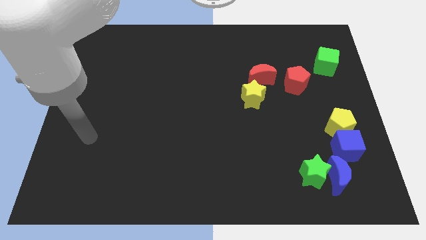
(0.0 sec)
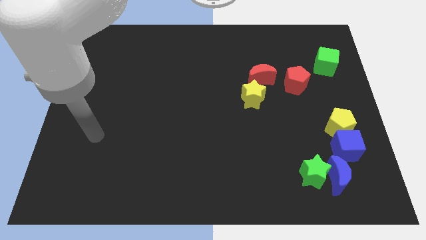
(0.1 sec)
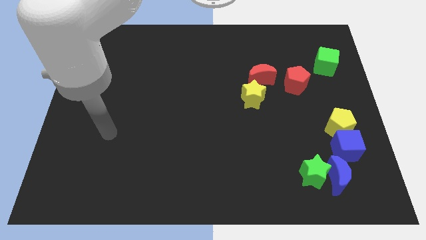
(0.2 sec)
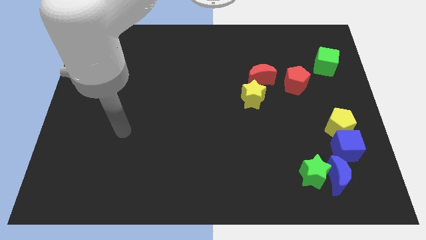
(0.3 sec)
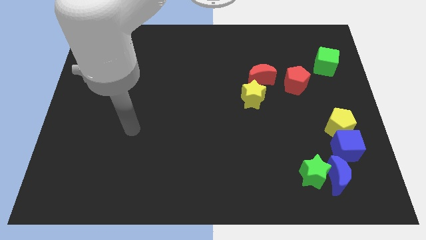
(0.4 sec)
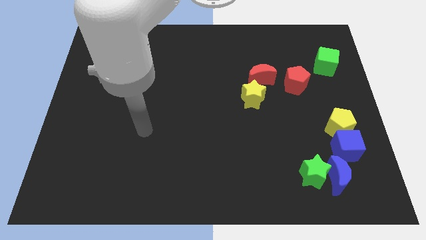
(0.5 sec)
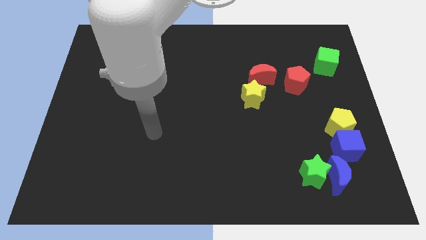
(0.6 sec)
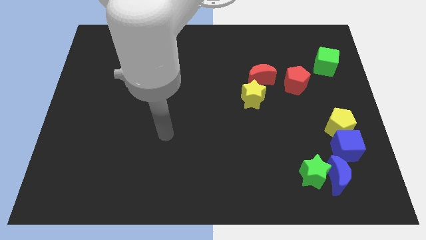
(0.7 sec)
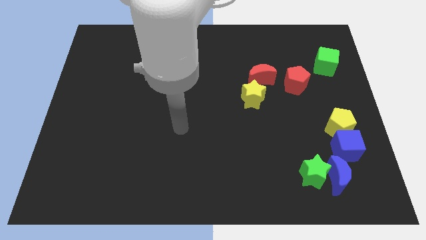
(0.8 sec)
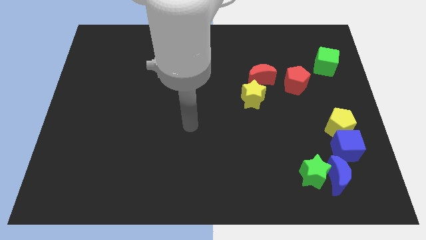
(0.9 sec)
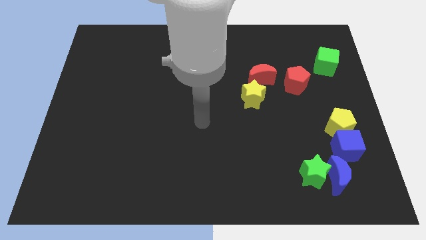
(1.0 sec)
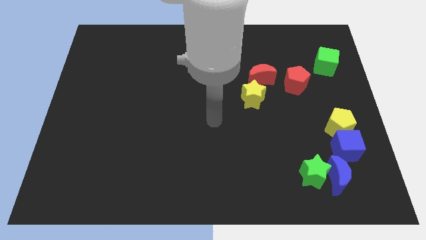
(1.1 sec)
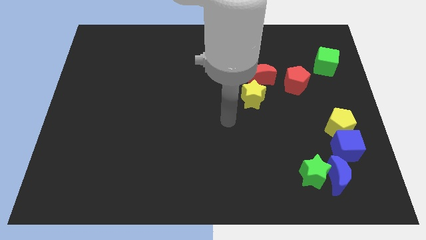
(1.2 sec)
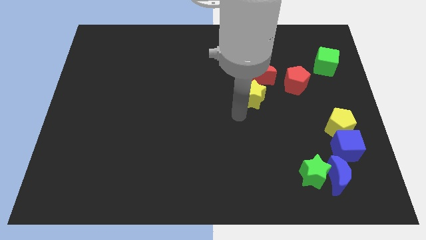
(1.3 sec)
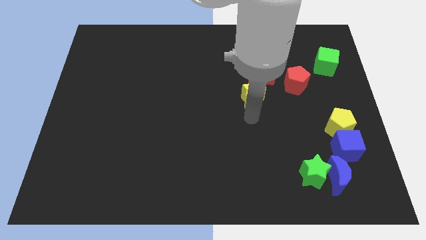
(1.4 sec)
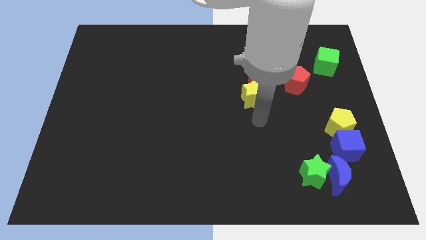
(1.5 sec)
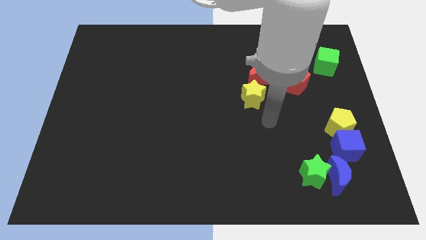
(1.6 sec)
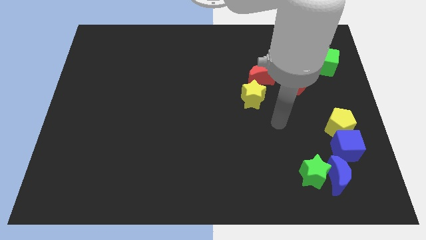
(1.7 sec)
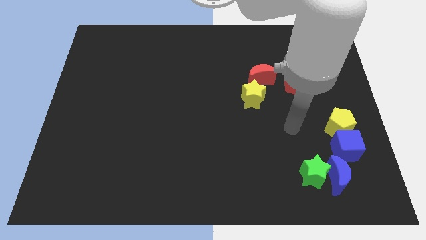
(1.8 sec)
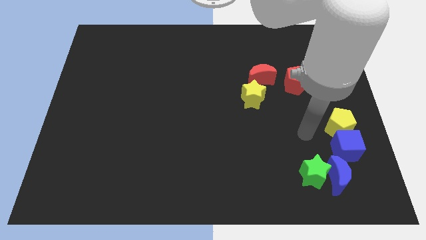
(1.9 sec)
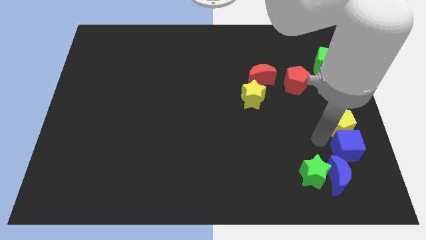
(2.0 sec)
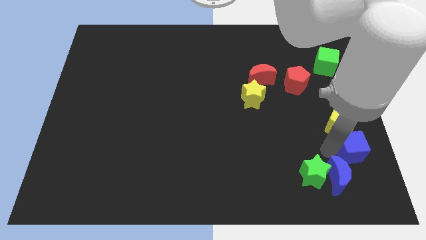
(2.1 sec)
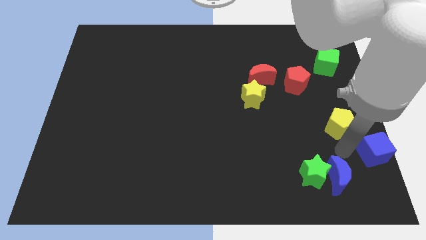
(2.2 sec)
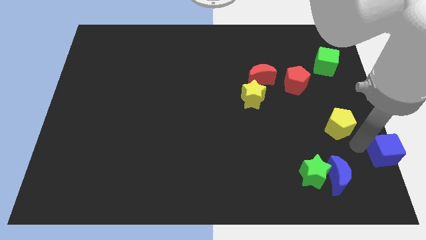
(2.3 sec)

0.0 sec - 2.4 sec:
pull the yellow pentagon apart from the blue cube

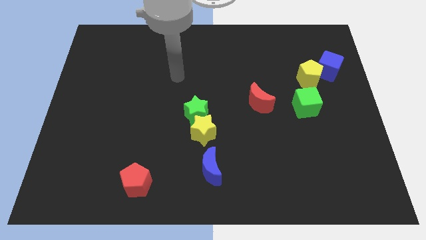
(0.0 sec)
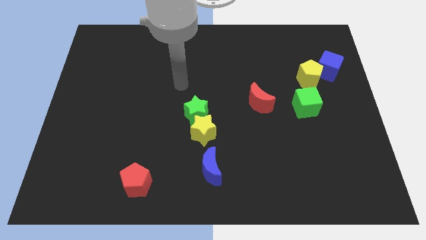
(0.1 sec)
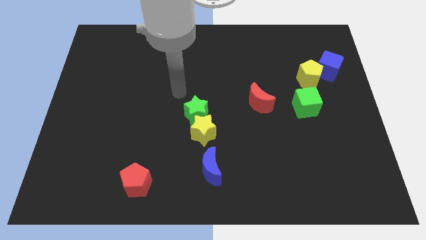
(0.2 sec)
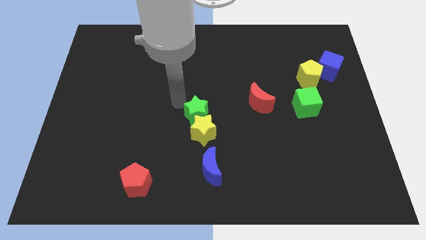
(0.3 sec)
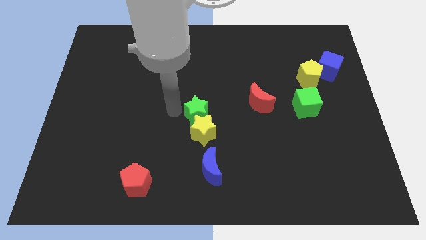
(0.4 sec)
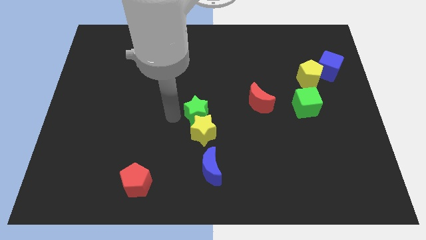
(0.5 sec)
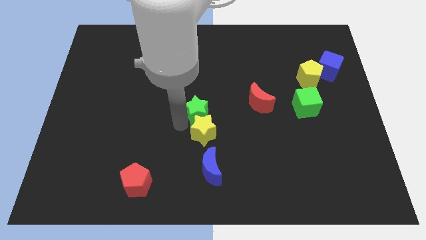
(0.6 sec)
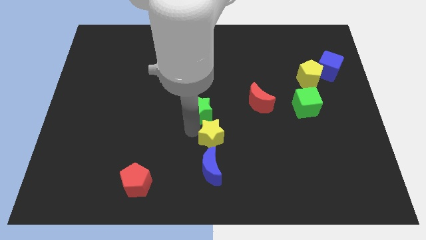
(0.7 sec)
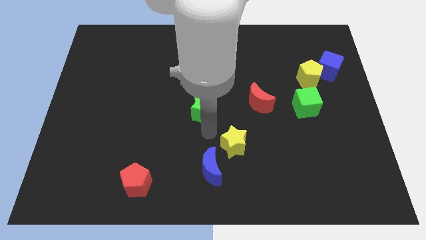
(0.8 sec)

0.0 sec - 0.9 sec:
separate the green star from the yellow star

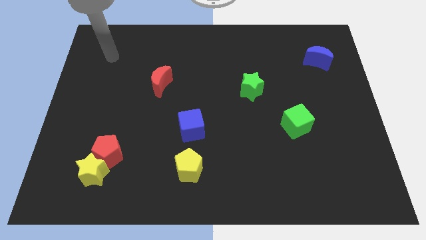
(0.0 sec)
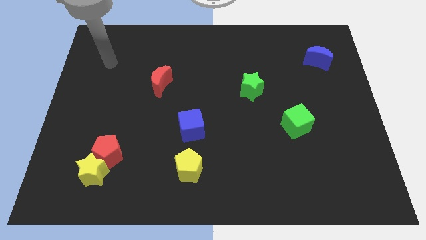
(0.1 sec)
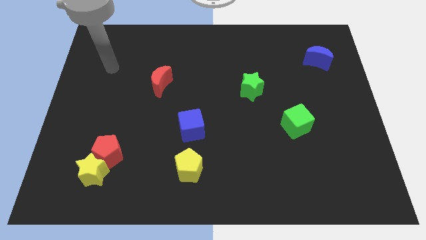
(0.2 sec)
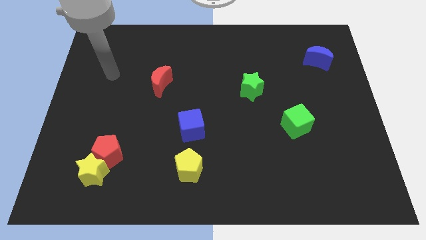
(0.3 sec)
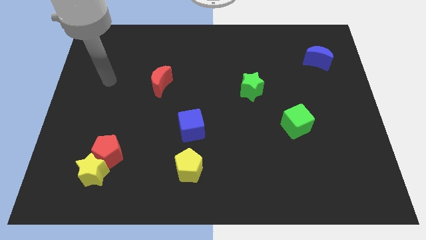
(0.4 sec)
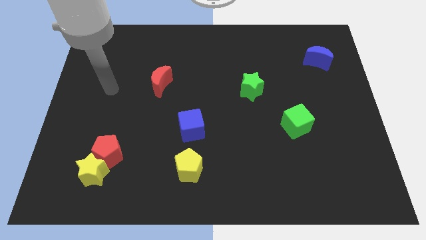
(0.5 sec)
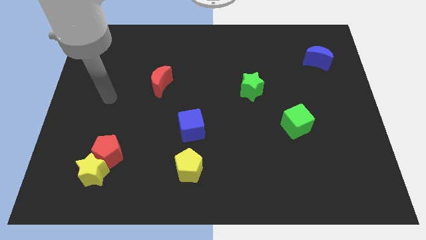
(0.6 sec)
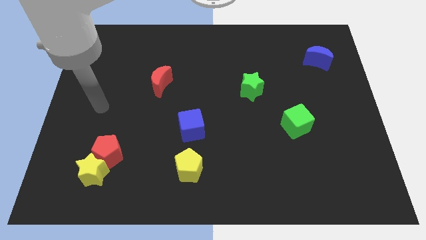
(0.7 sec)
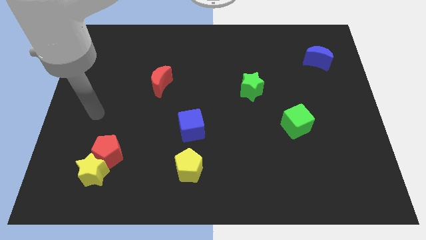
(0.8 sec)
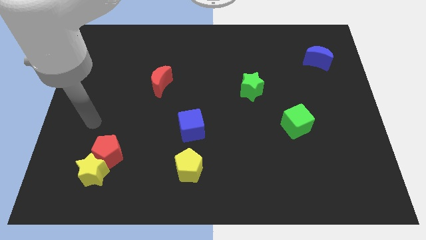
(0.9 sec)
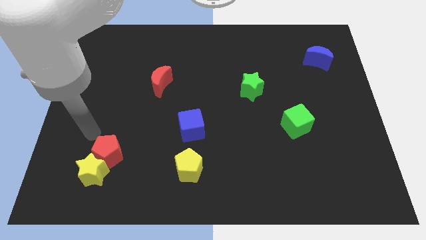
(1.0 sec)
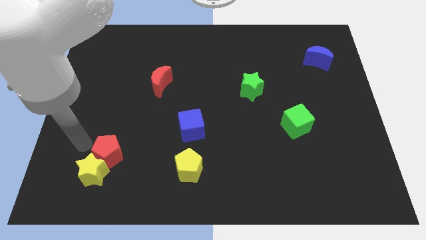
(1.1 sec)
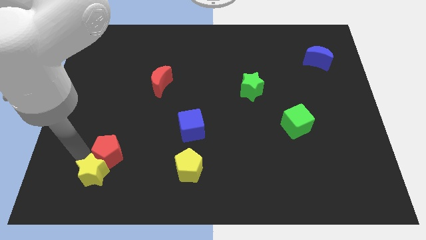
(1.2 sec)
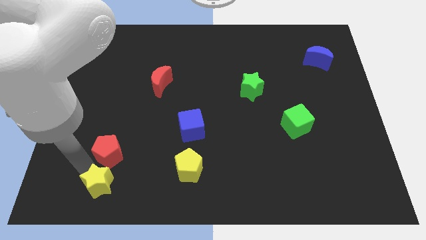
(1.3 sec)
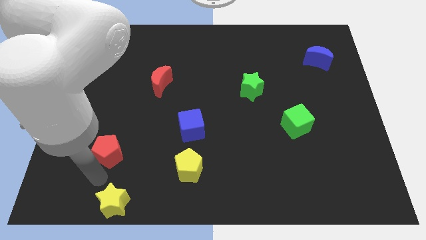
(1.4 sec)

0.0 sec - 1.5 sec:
move the red pentagon away from the yellow star

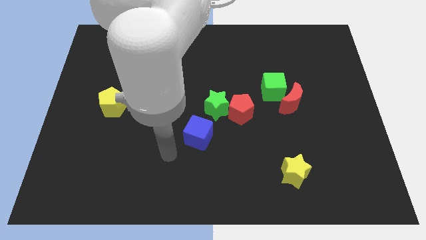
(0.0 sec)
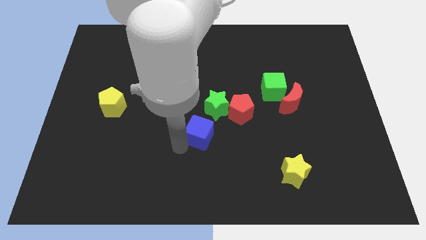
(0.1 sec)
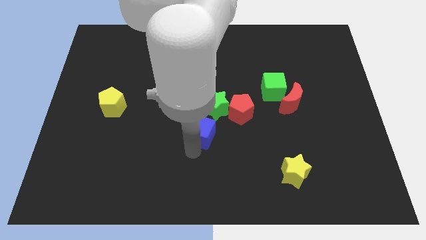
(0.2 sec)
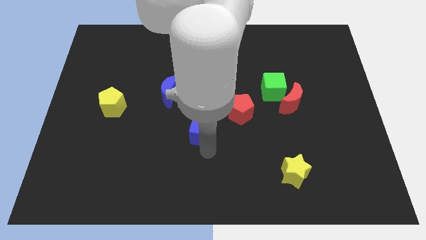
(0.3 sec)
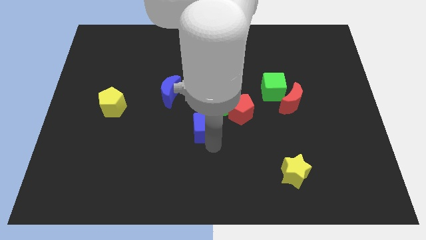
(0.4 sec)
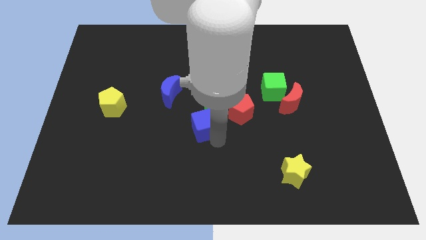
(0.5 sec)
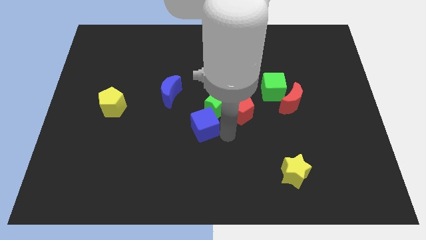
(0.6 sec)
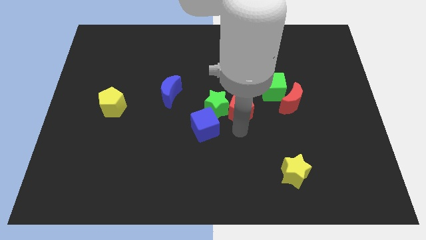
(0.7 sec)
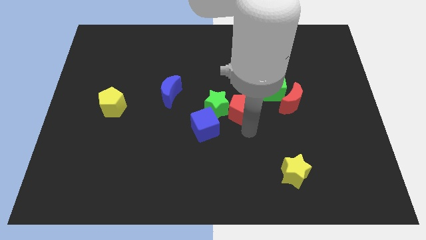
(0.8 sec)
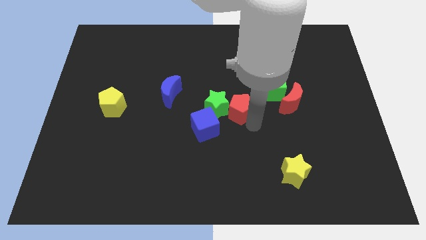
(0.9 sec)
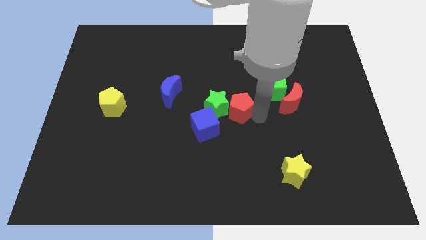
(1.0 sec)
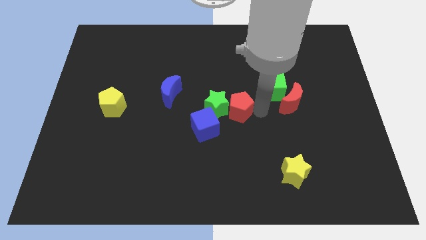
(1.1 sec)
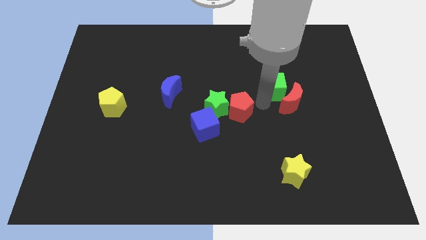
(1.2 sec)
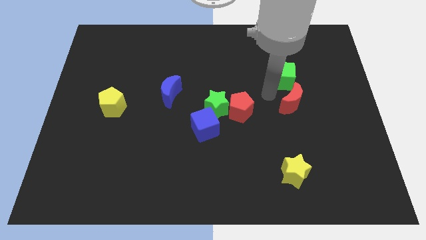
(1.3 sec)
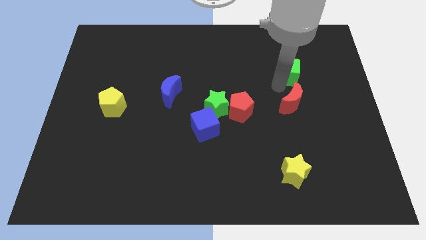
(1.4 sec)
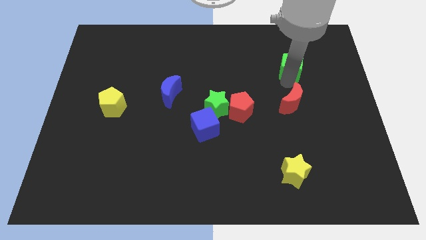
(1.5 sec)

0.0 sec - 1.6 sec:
pull the red moon apart from the green cube

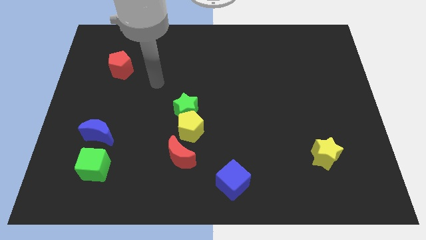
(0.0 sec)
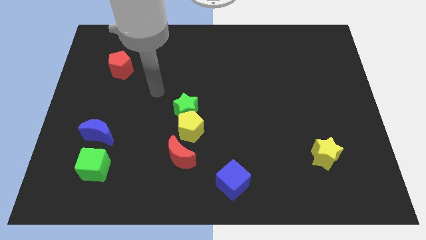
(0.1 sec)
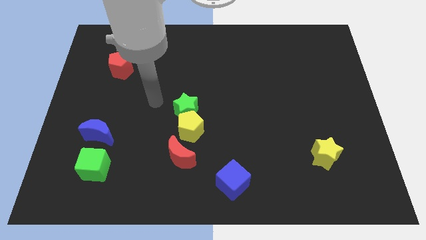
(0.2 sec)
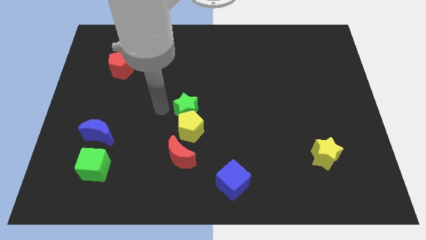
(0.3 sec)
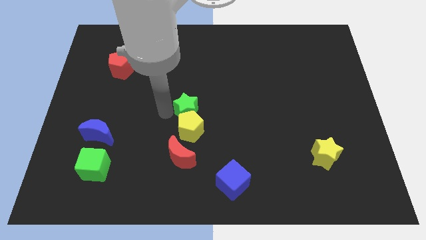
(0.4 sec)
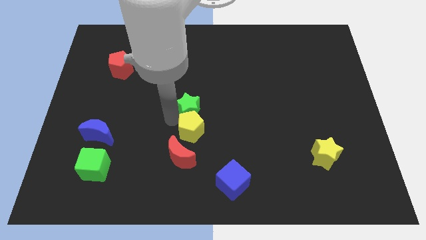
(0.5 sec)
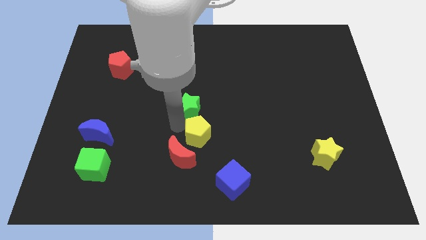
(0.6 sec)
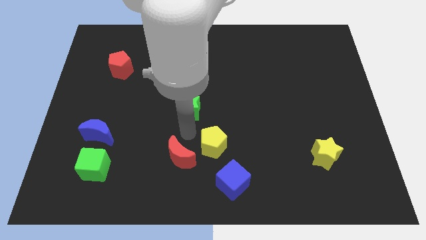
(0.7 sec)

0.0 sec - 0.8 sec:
separate the green star from the yellow pentagon

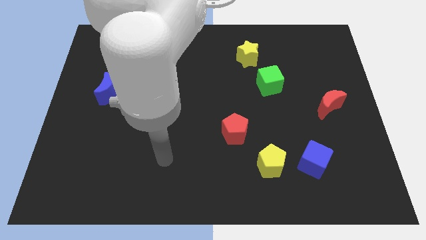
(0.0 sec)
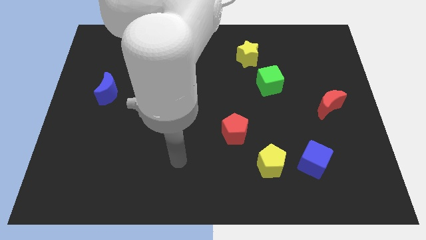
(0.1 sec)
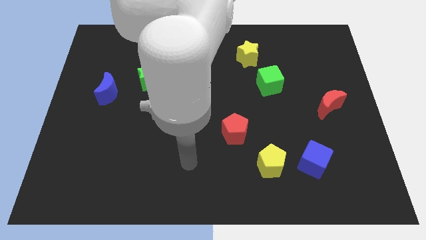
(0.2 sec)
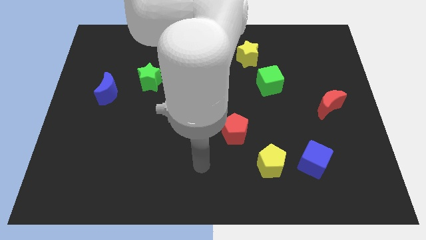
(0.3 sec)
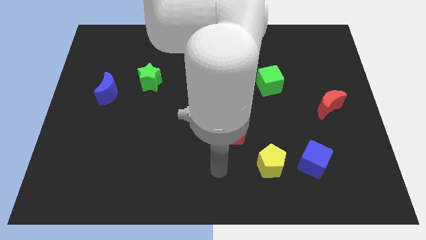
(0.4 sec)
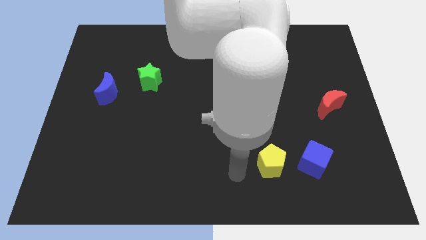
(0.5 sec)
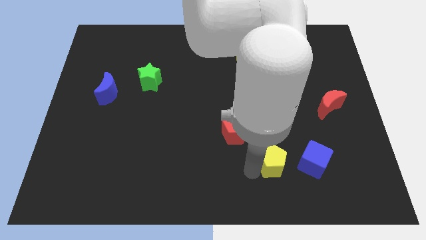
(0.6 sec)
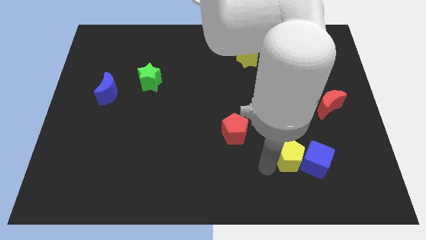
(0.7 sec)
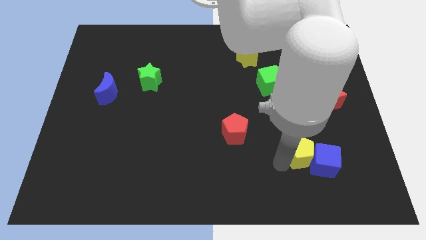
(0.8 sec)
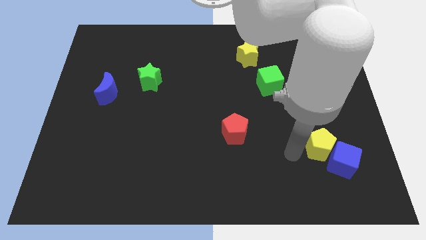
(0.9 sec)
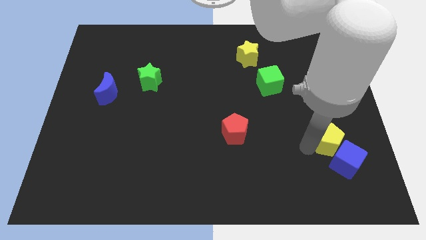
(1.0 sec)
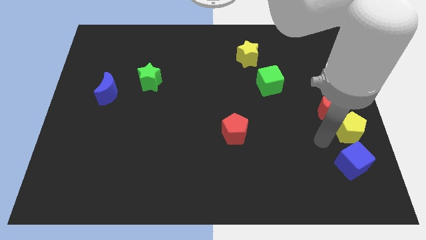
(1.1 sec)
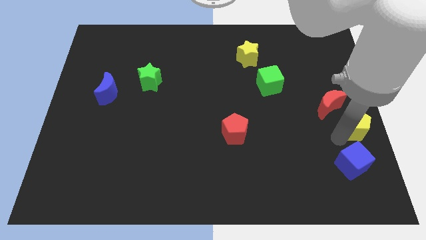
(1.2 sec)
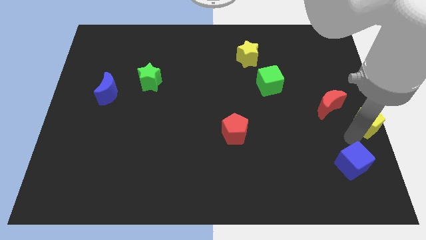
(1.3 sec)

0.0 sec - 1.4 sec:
pull the blue cube apart from the yellow pentagon

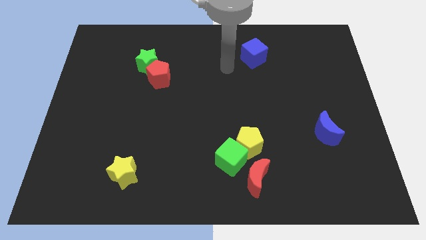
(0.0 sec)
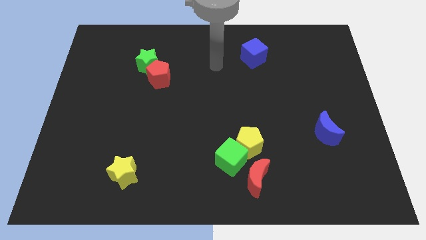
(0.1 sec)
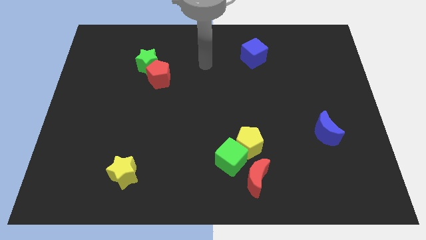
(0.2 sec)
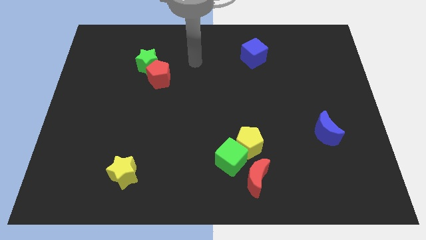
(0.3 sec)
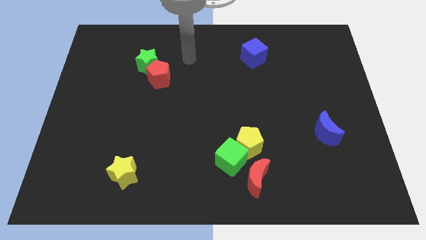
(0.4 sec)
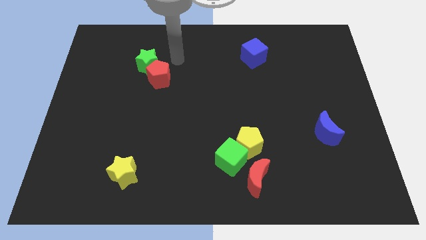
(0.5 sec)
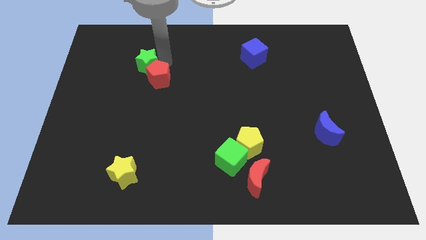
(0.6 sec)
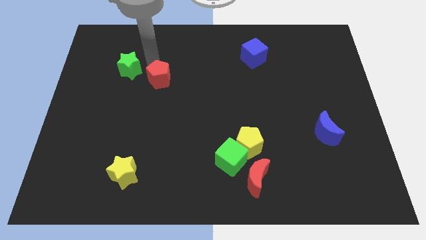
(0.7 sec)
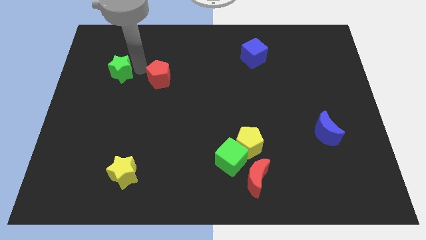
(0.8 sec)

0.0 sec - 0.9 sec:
pull the red pentagon apart from the green star
